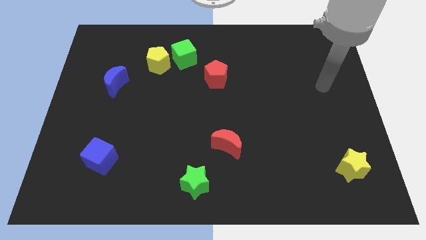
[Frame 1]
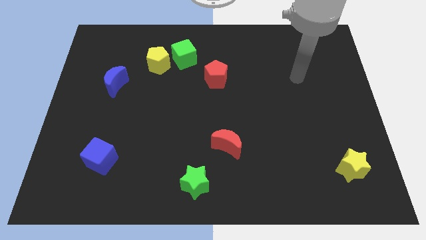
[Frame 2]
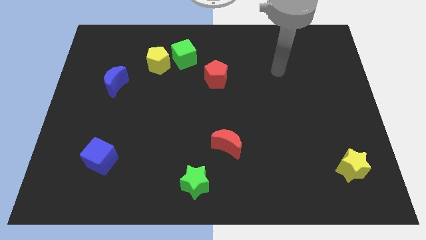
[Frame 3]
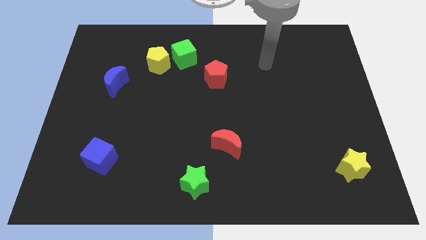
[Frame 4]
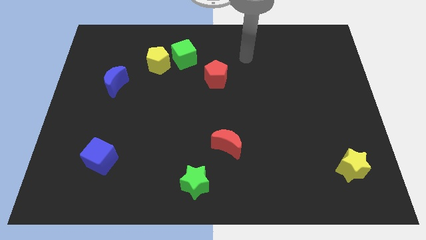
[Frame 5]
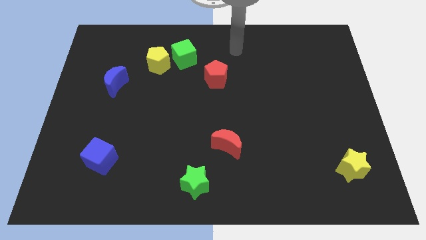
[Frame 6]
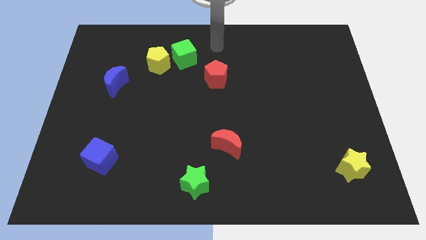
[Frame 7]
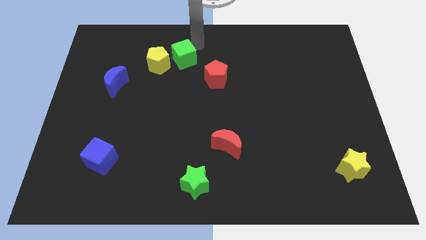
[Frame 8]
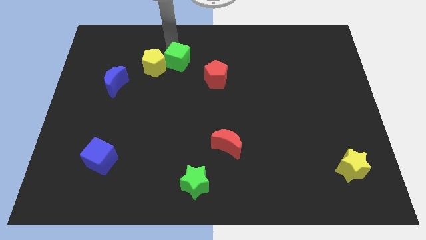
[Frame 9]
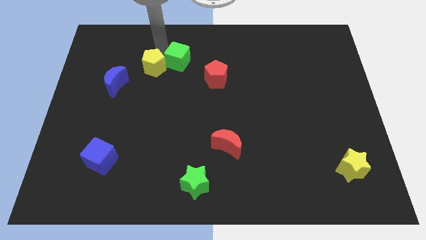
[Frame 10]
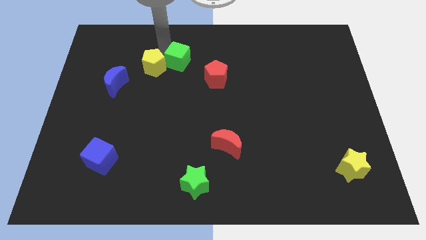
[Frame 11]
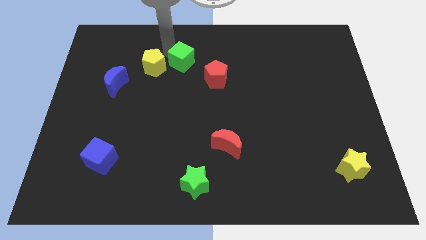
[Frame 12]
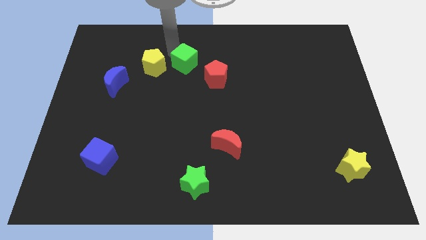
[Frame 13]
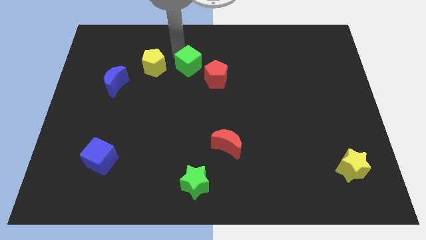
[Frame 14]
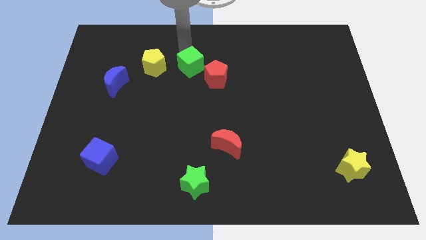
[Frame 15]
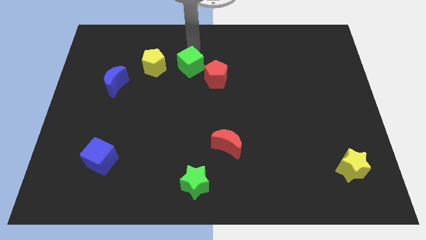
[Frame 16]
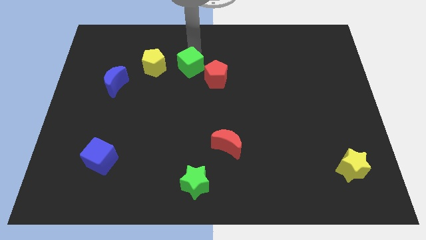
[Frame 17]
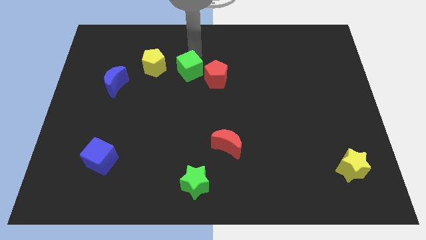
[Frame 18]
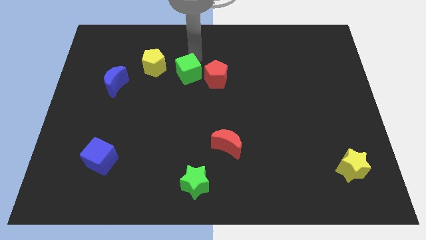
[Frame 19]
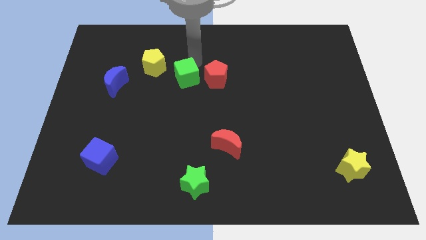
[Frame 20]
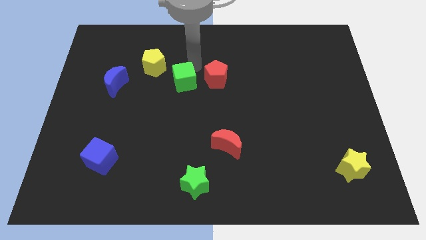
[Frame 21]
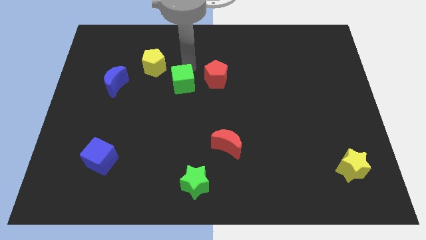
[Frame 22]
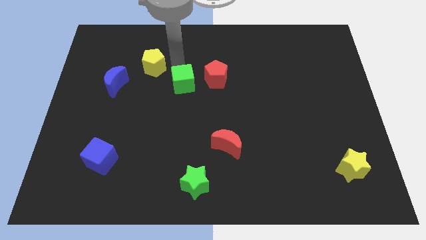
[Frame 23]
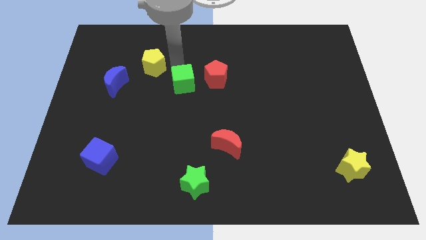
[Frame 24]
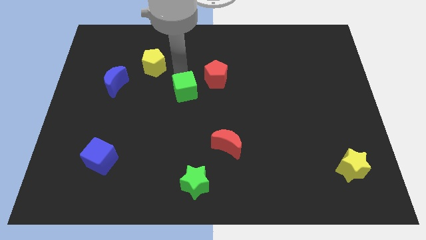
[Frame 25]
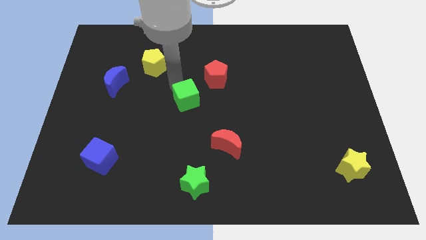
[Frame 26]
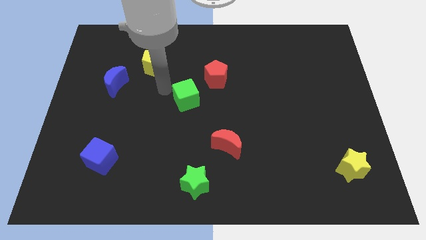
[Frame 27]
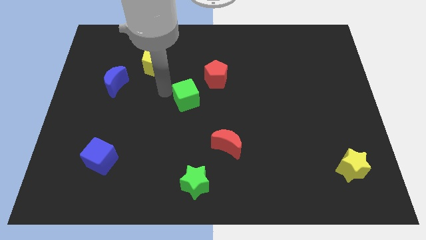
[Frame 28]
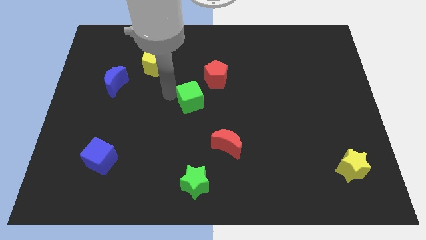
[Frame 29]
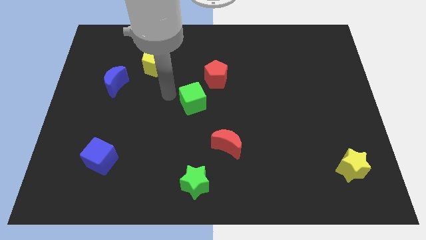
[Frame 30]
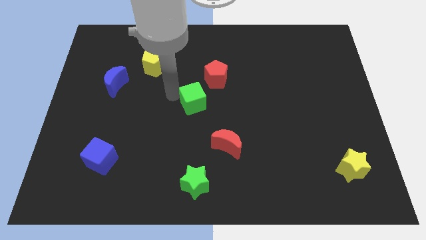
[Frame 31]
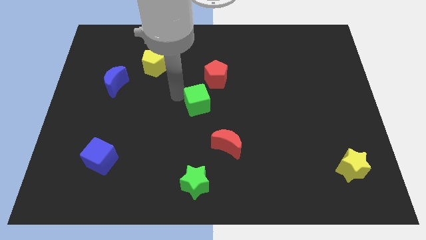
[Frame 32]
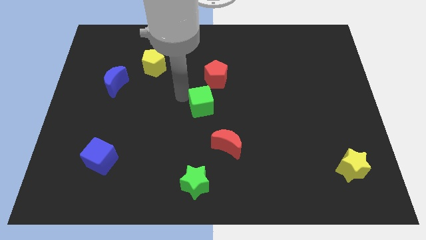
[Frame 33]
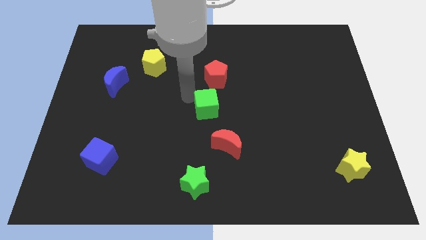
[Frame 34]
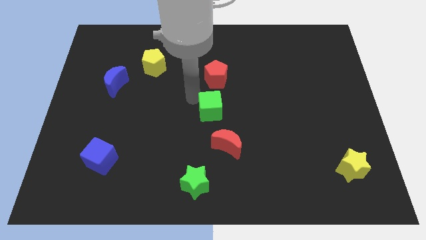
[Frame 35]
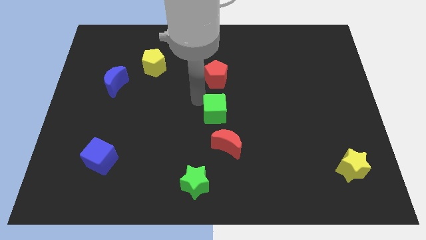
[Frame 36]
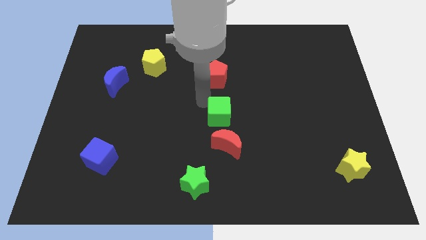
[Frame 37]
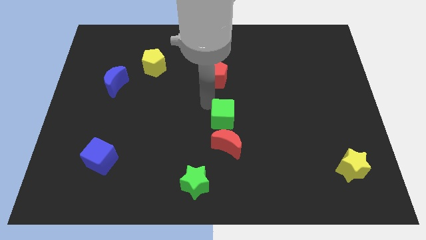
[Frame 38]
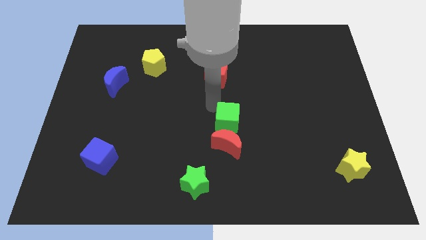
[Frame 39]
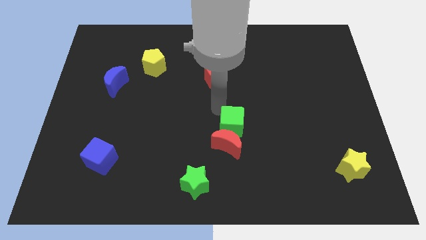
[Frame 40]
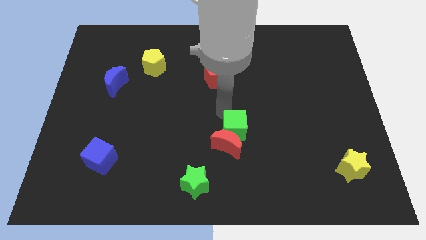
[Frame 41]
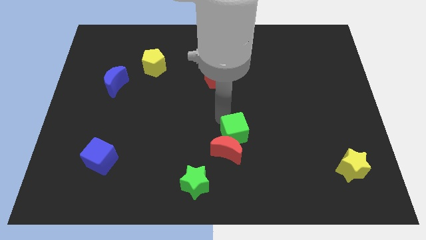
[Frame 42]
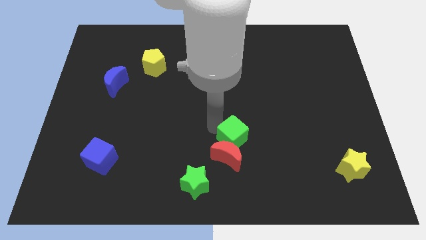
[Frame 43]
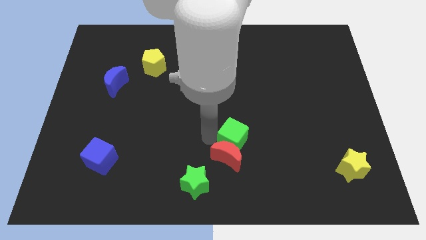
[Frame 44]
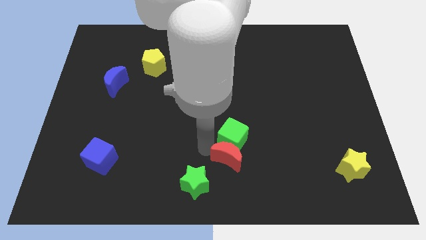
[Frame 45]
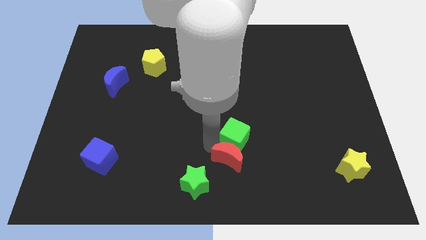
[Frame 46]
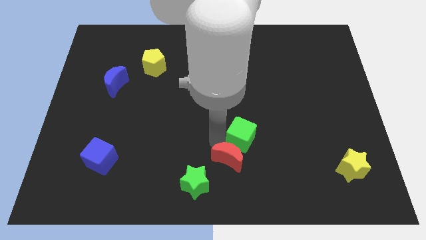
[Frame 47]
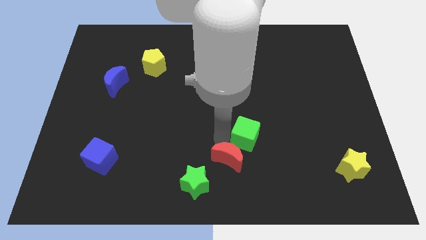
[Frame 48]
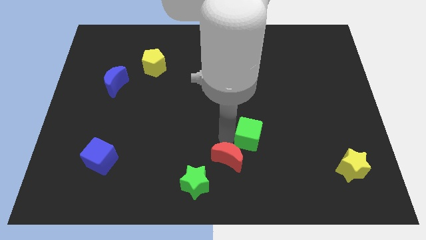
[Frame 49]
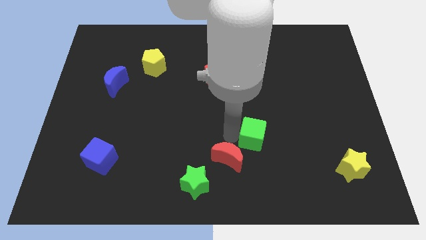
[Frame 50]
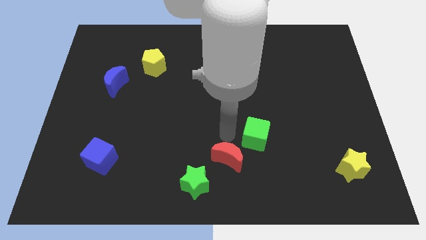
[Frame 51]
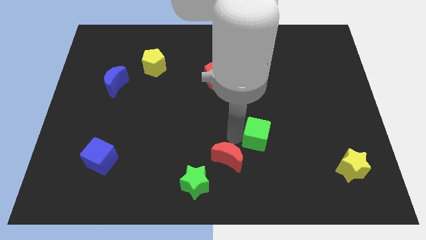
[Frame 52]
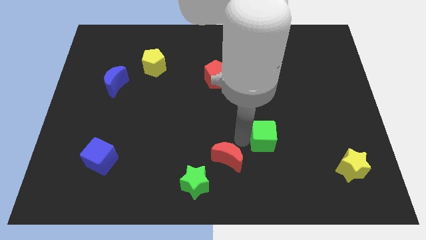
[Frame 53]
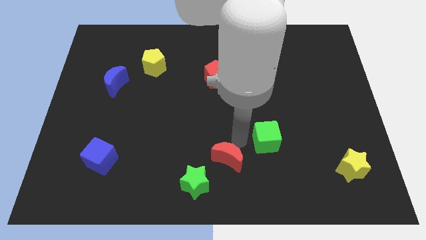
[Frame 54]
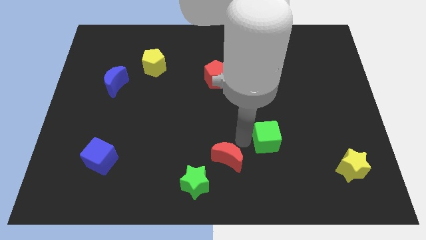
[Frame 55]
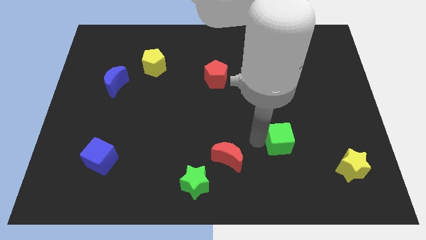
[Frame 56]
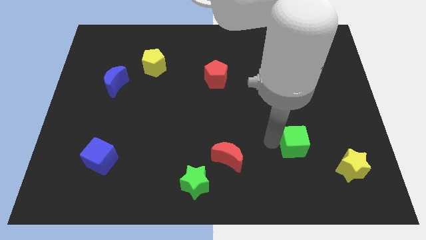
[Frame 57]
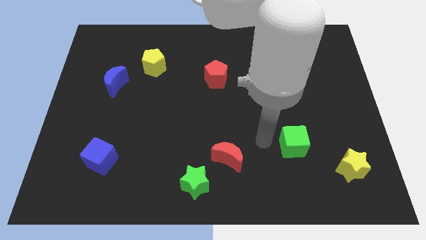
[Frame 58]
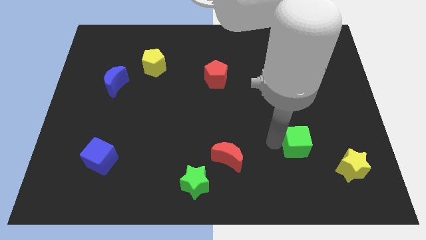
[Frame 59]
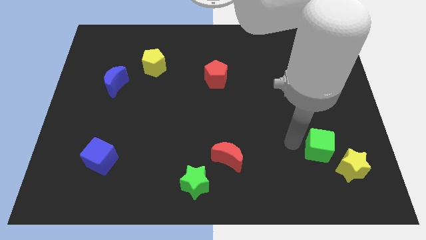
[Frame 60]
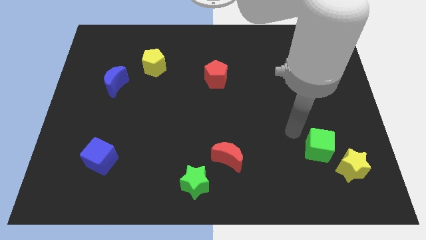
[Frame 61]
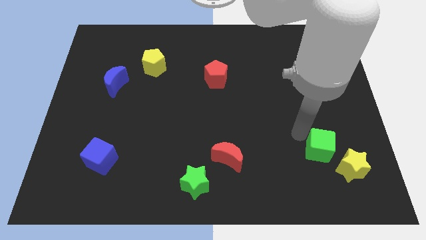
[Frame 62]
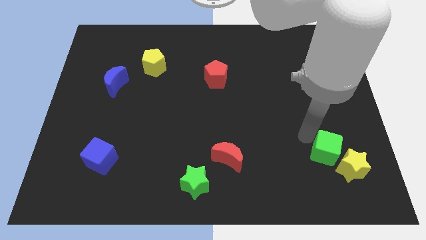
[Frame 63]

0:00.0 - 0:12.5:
put the green cube to the yellow star
